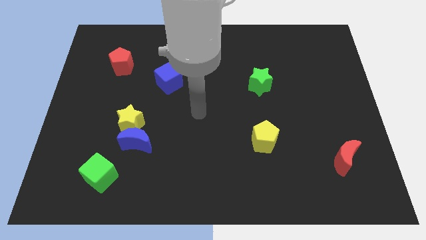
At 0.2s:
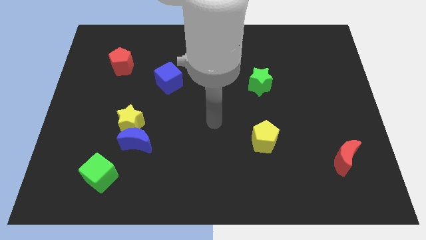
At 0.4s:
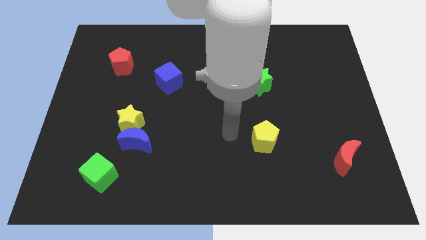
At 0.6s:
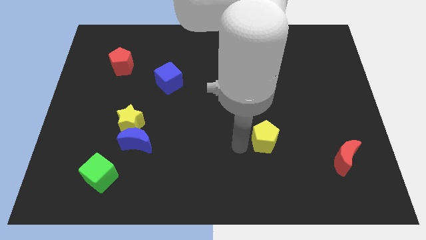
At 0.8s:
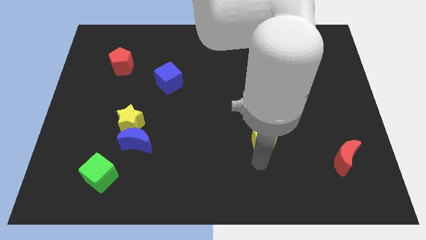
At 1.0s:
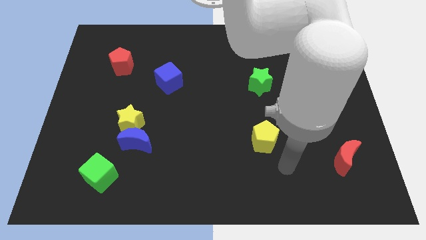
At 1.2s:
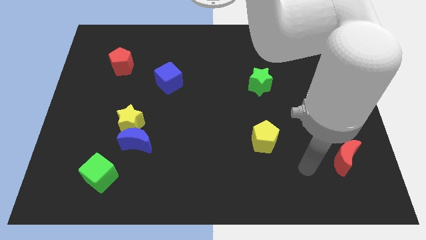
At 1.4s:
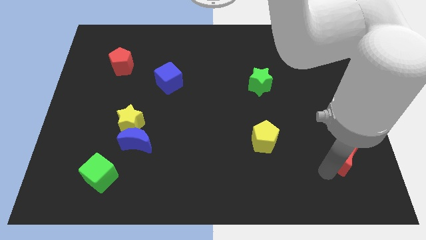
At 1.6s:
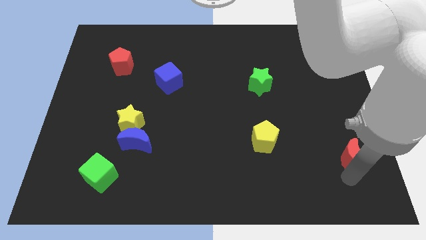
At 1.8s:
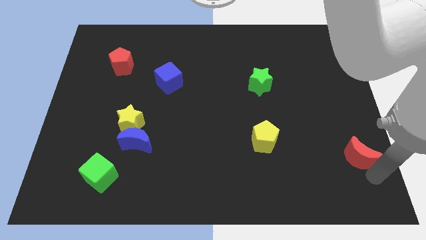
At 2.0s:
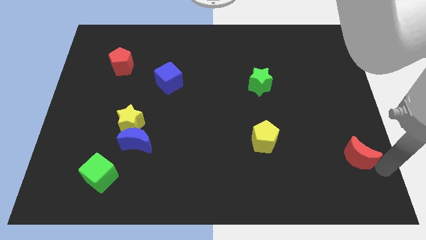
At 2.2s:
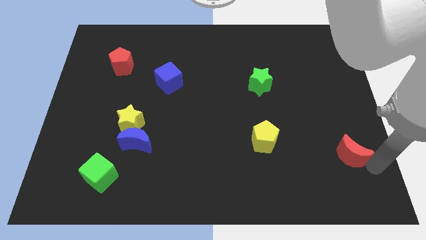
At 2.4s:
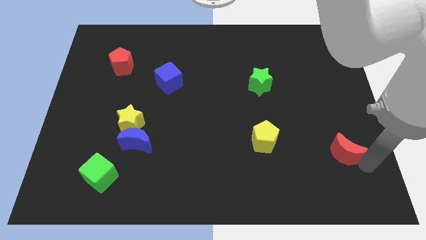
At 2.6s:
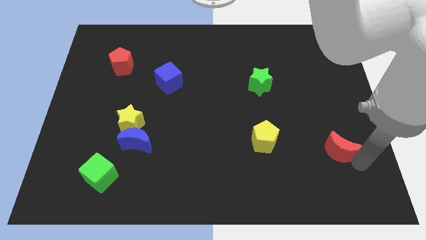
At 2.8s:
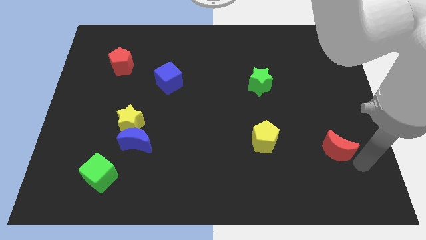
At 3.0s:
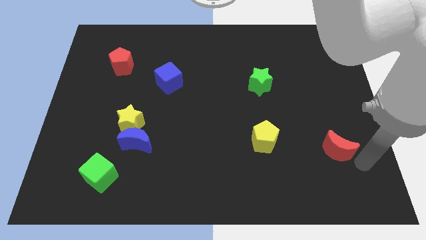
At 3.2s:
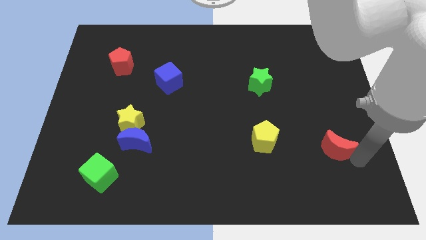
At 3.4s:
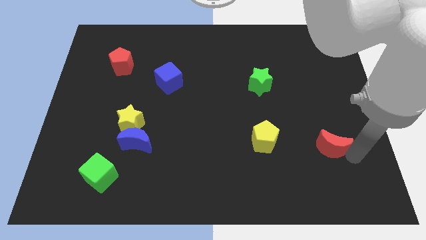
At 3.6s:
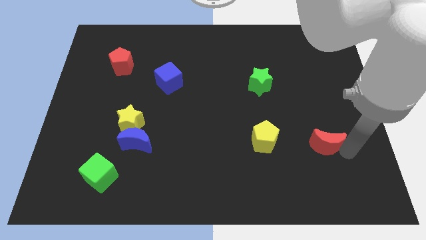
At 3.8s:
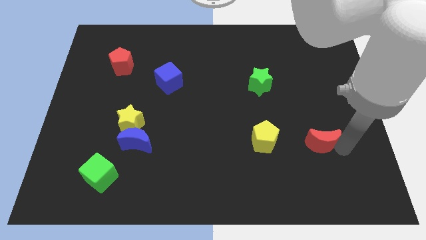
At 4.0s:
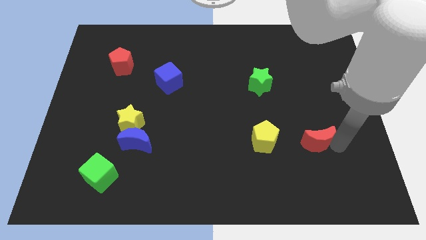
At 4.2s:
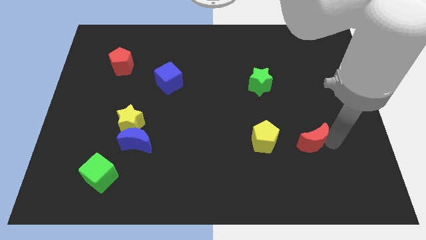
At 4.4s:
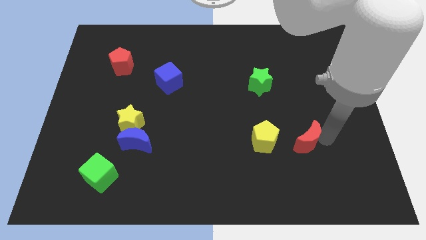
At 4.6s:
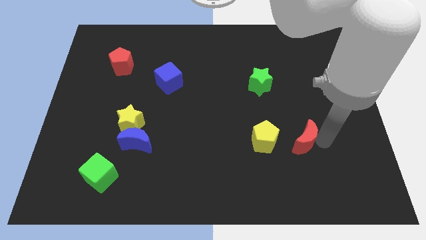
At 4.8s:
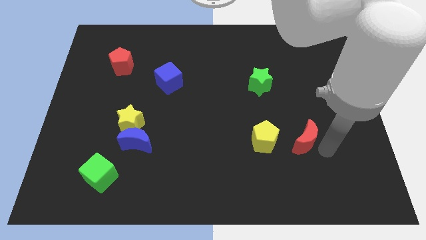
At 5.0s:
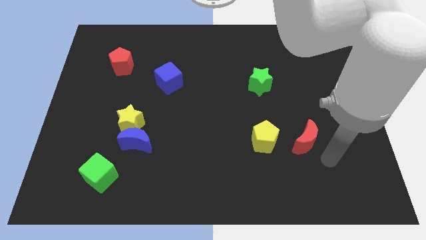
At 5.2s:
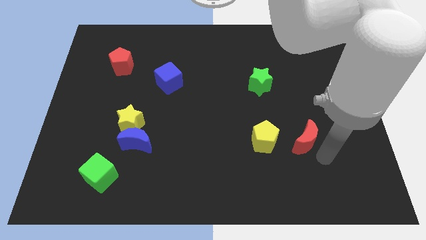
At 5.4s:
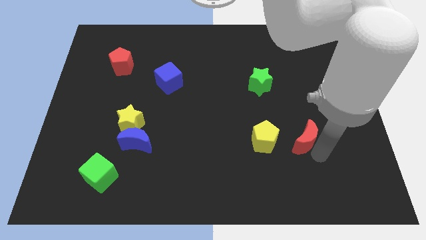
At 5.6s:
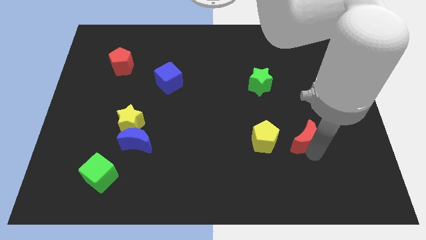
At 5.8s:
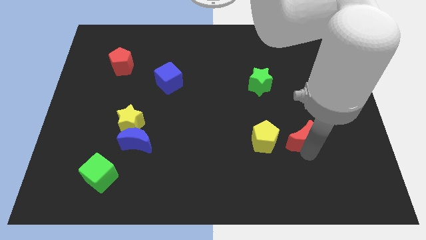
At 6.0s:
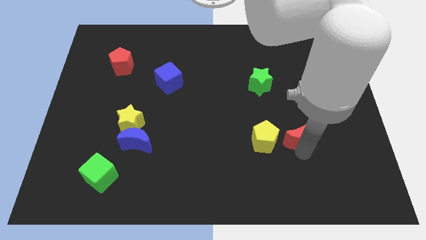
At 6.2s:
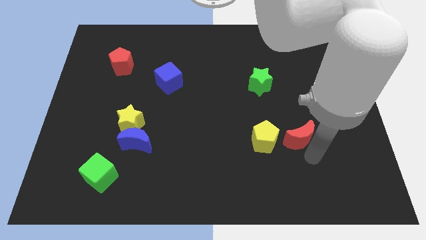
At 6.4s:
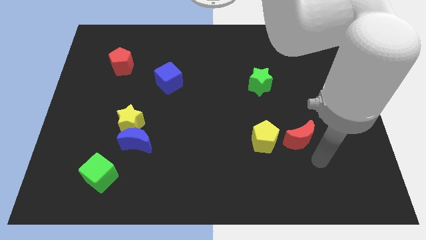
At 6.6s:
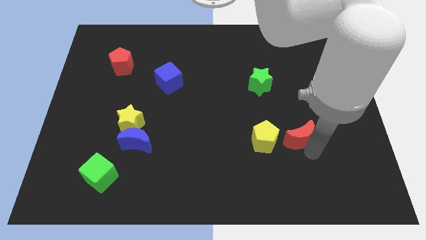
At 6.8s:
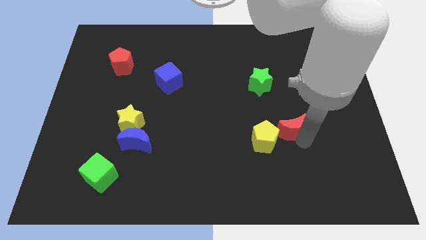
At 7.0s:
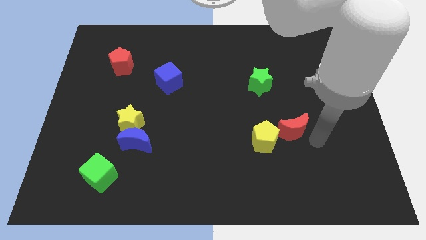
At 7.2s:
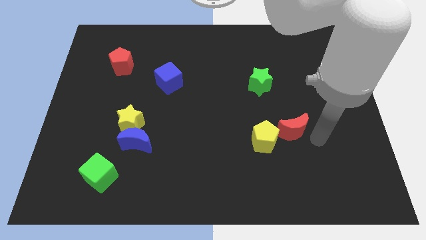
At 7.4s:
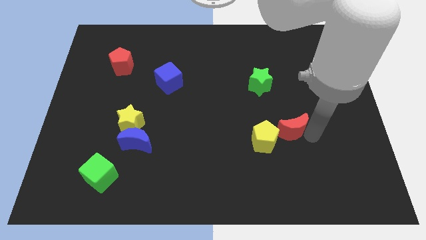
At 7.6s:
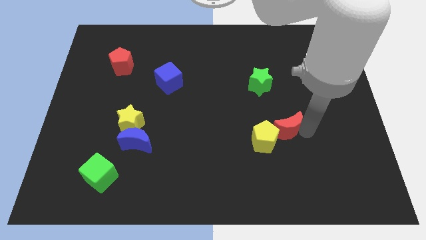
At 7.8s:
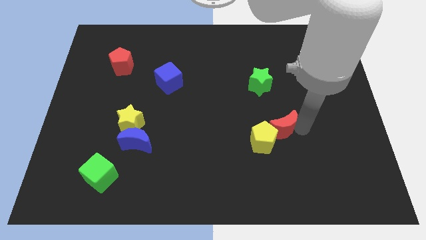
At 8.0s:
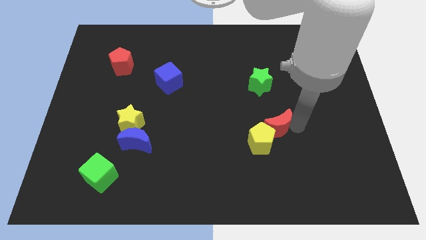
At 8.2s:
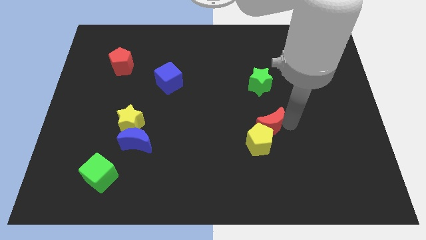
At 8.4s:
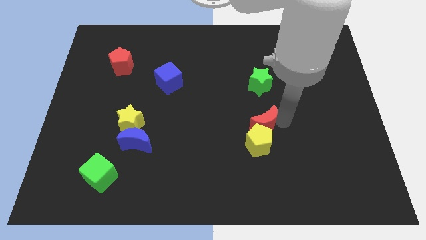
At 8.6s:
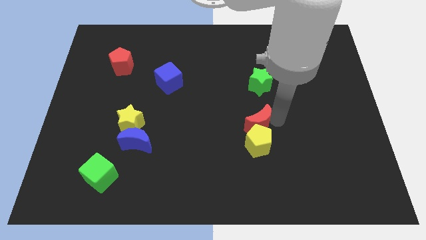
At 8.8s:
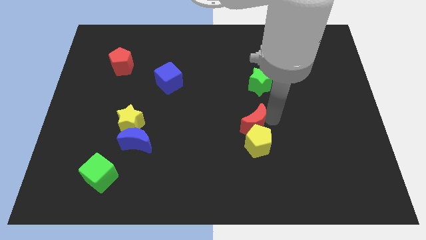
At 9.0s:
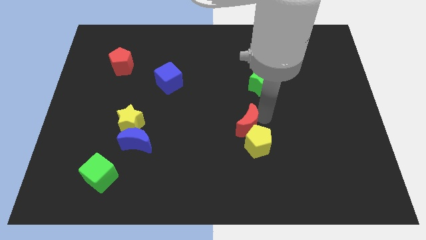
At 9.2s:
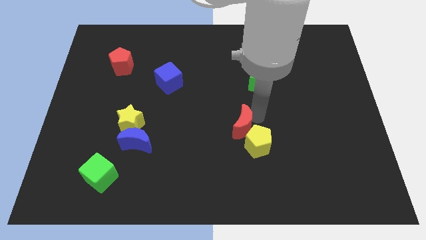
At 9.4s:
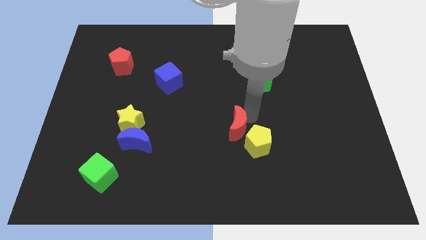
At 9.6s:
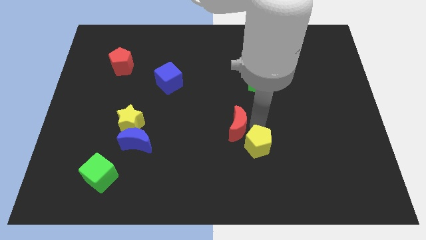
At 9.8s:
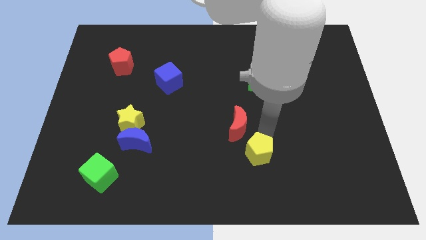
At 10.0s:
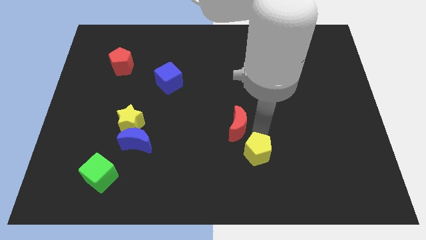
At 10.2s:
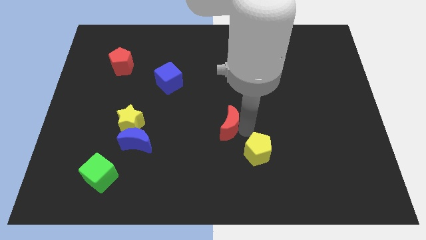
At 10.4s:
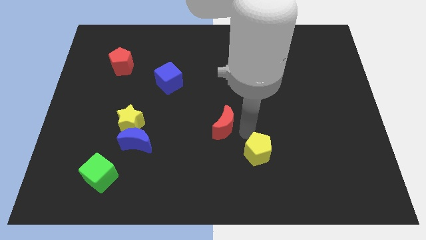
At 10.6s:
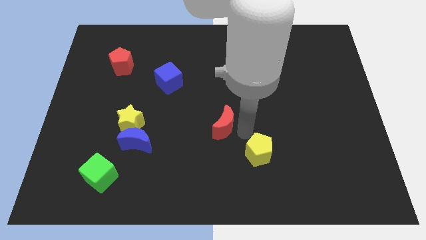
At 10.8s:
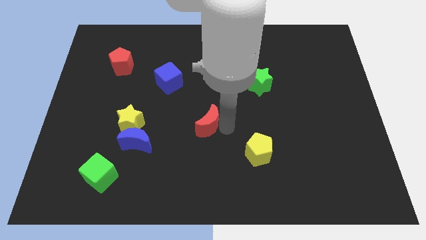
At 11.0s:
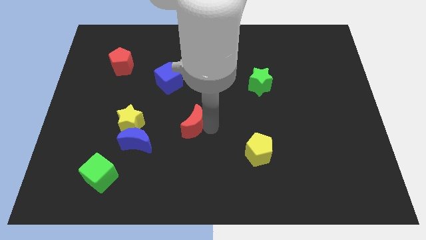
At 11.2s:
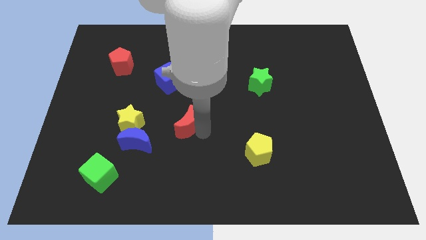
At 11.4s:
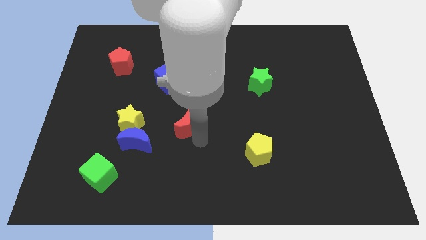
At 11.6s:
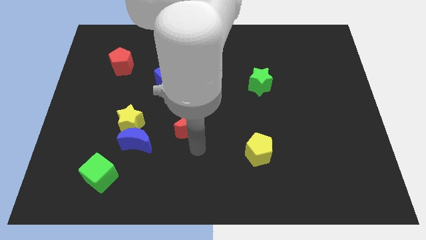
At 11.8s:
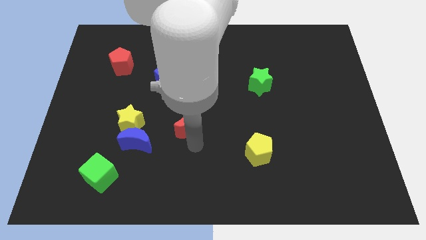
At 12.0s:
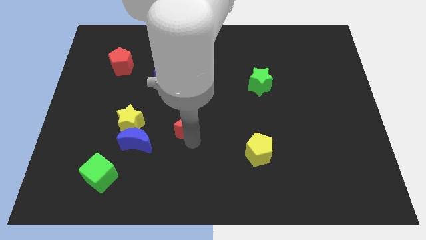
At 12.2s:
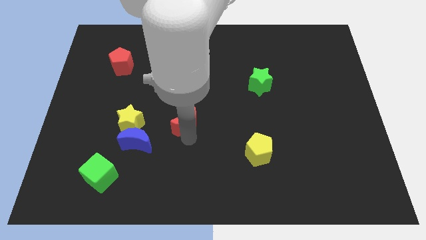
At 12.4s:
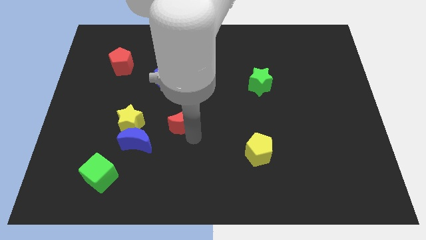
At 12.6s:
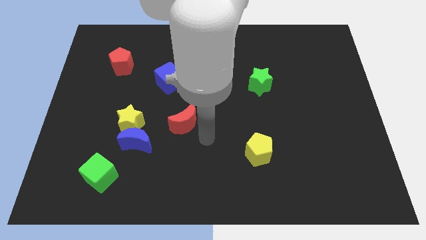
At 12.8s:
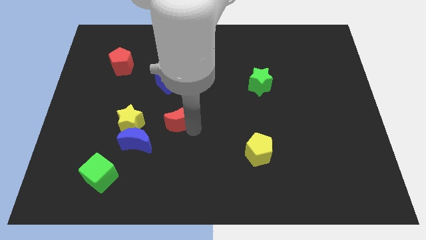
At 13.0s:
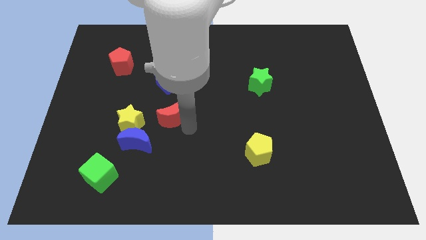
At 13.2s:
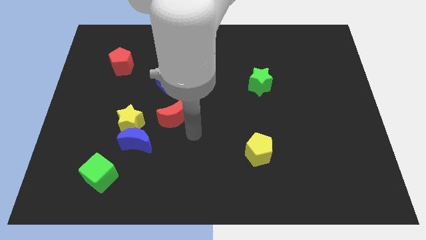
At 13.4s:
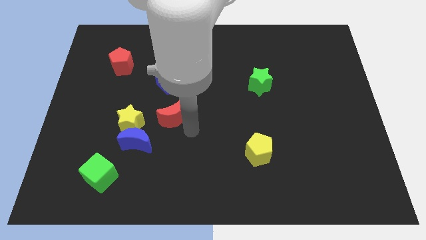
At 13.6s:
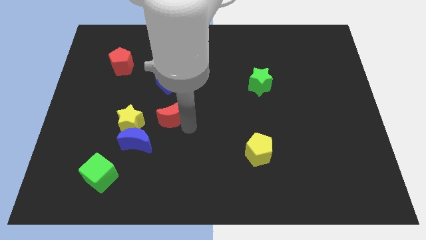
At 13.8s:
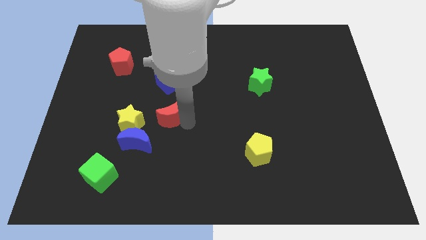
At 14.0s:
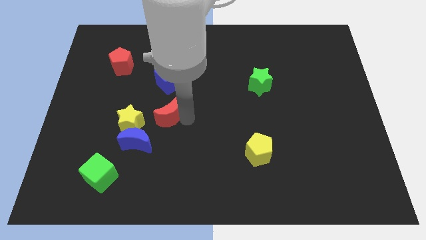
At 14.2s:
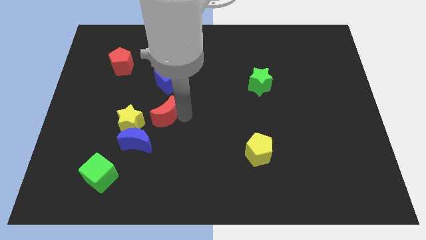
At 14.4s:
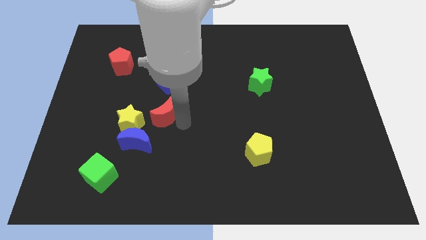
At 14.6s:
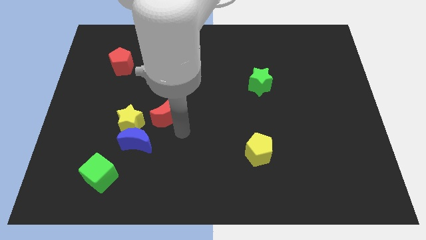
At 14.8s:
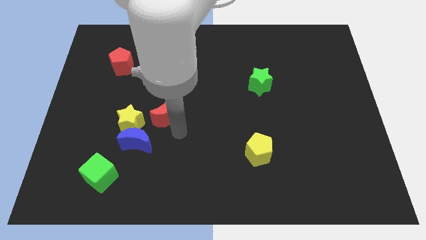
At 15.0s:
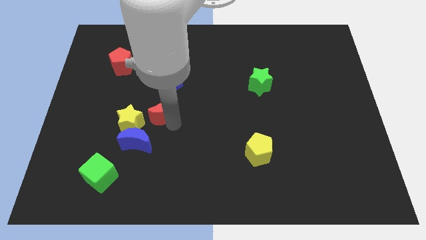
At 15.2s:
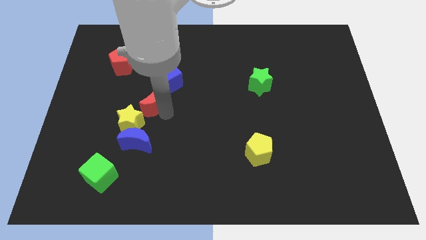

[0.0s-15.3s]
put the red moon to the bottom left of the blue cube

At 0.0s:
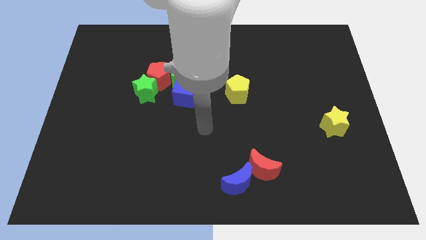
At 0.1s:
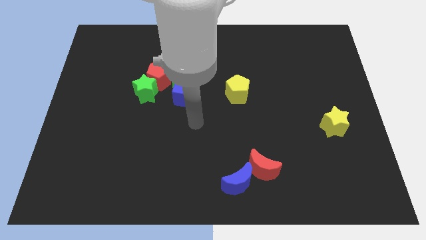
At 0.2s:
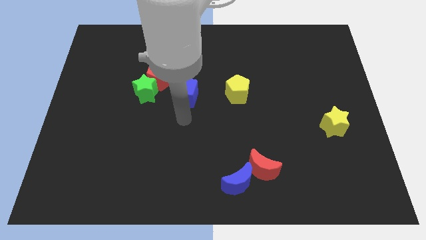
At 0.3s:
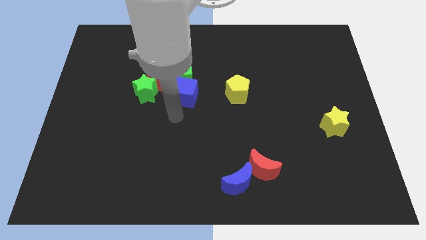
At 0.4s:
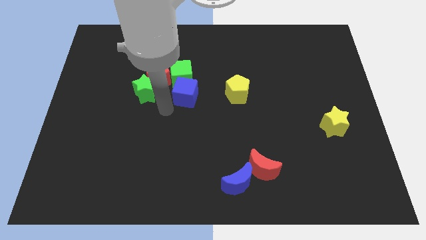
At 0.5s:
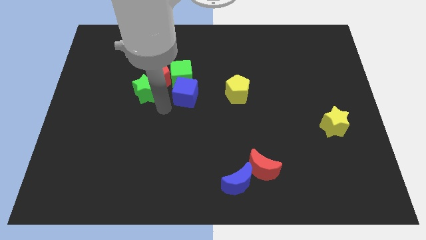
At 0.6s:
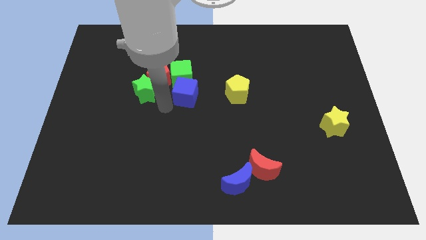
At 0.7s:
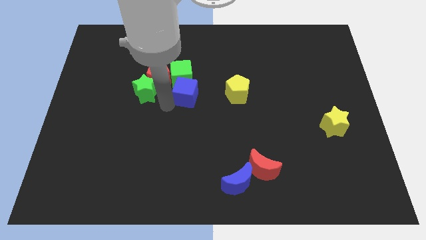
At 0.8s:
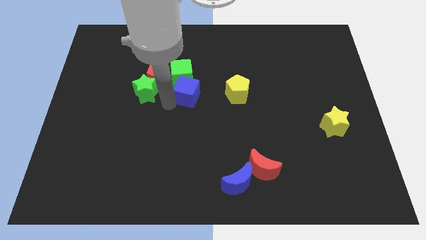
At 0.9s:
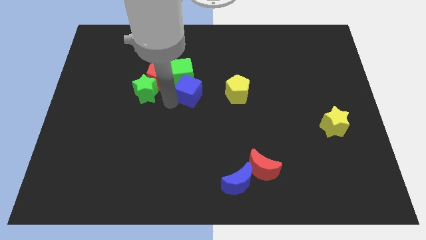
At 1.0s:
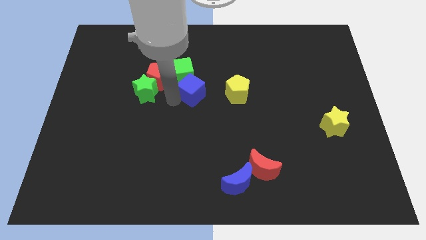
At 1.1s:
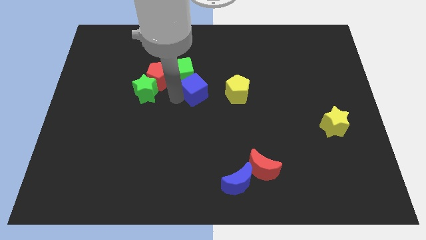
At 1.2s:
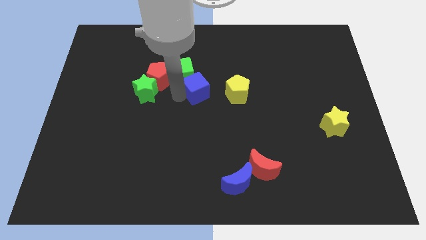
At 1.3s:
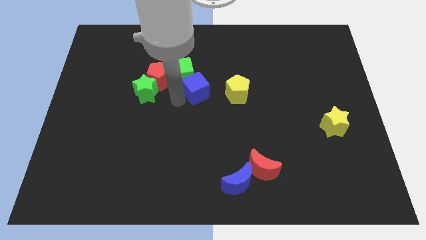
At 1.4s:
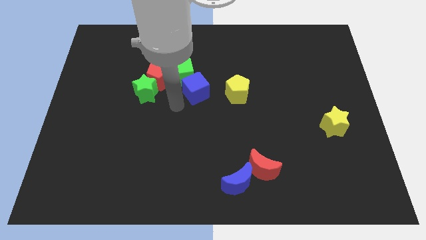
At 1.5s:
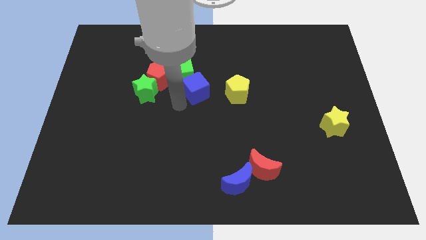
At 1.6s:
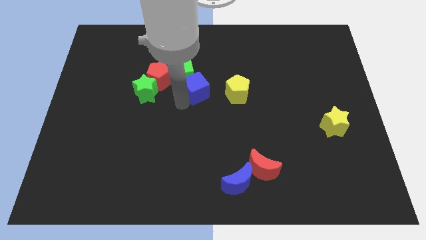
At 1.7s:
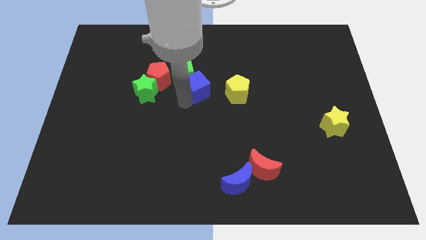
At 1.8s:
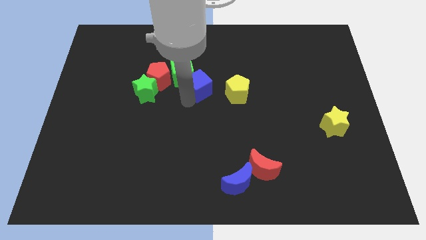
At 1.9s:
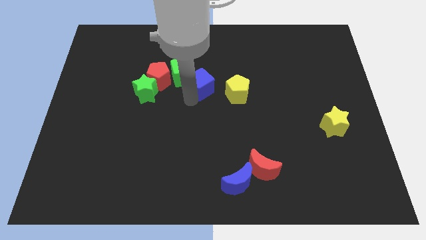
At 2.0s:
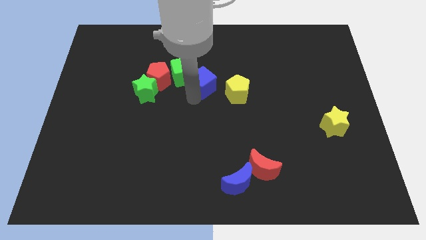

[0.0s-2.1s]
move the blue cube diagonally up and to the left of the yellow pentagon
